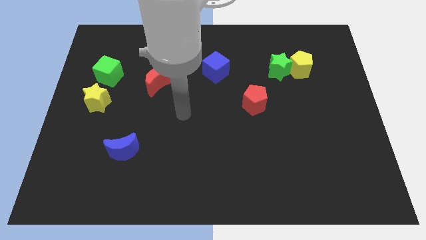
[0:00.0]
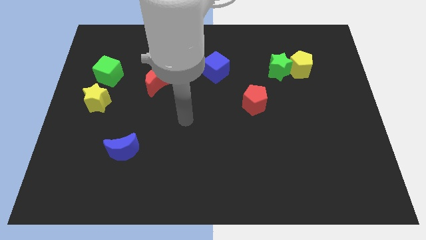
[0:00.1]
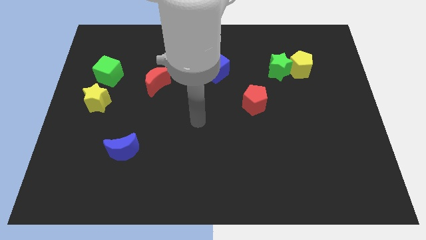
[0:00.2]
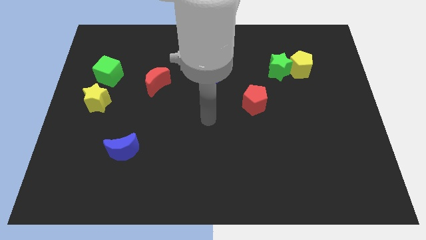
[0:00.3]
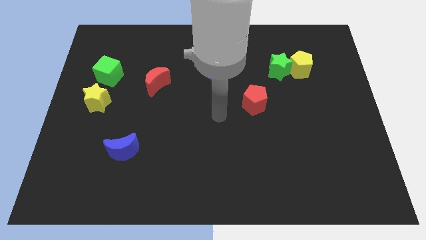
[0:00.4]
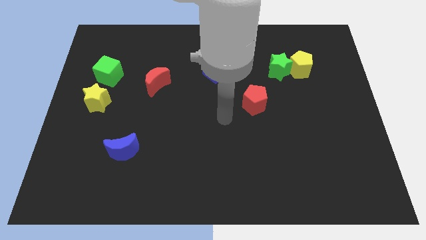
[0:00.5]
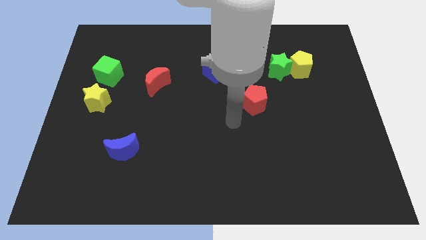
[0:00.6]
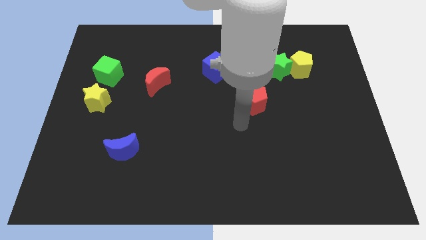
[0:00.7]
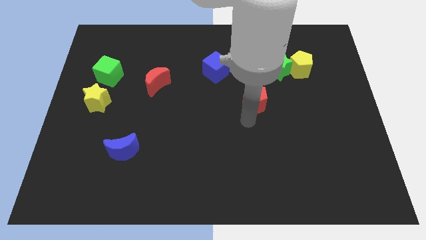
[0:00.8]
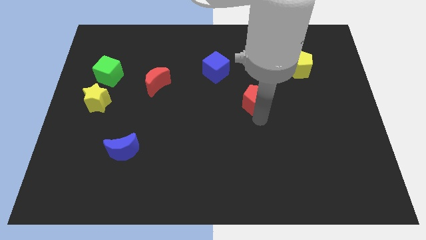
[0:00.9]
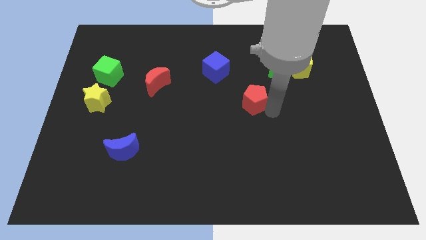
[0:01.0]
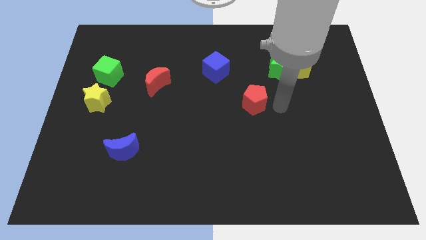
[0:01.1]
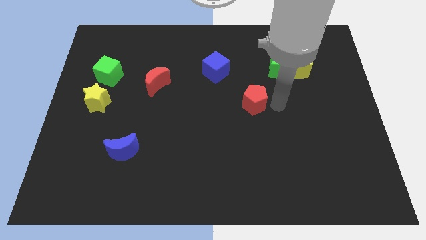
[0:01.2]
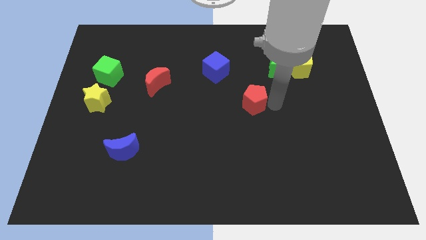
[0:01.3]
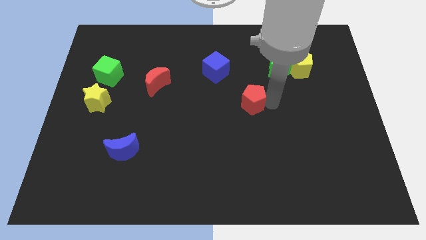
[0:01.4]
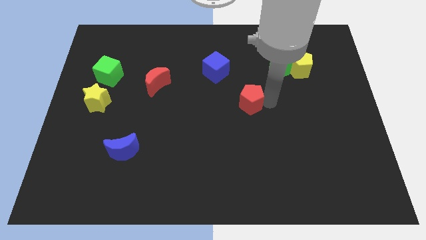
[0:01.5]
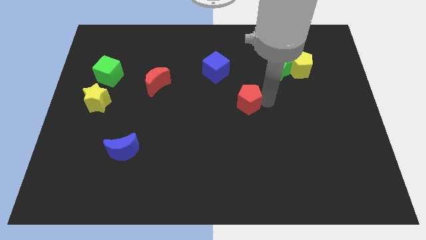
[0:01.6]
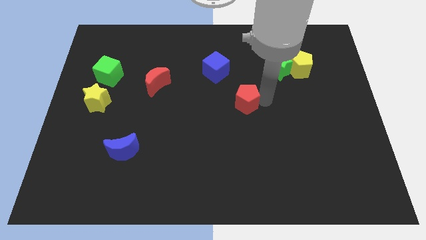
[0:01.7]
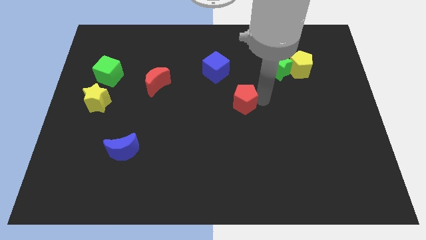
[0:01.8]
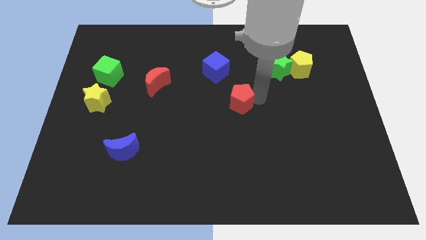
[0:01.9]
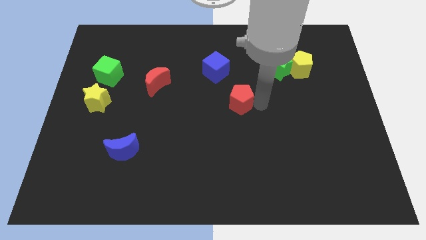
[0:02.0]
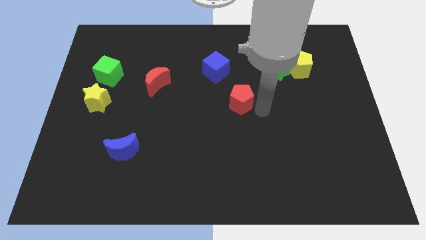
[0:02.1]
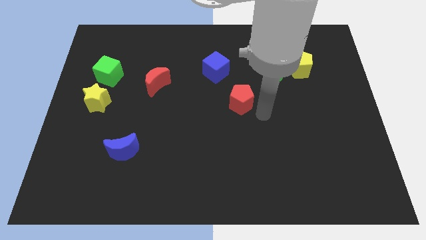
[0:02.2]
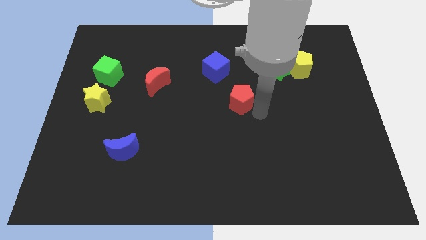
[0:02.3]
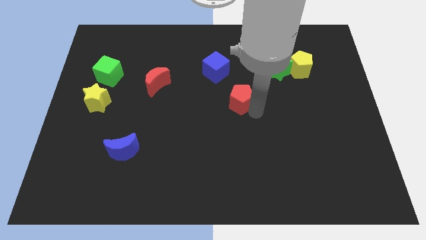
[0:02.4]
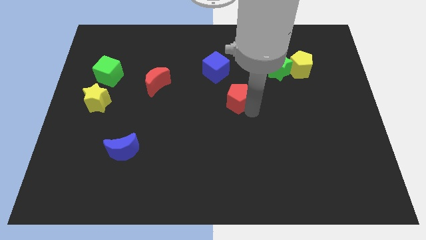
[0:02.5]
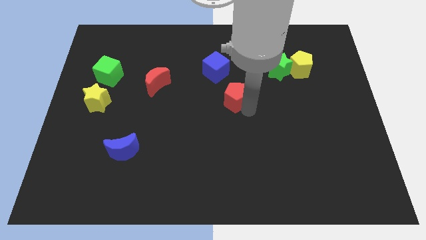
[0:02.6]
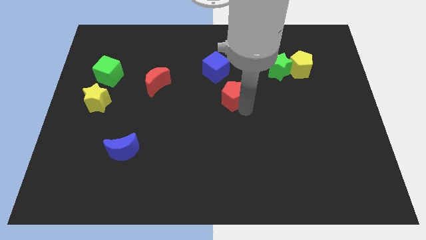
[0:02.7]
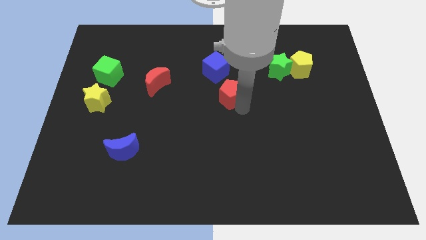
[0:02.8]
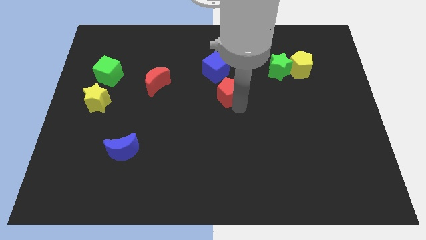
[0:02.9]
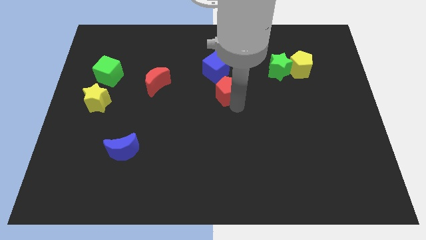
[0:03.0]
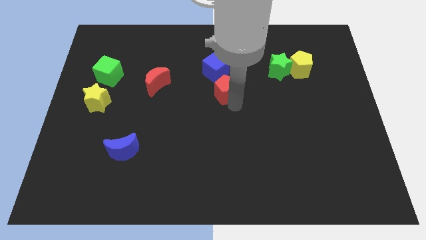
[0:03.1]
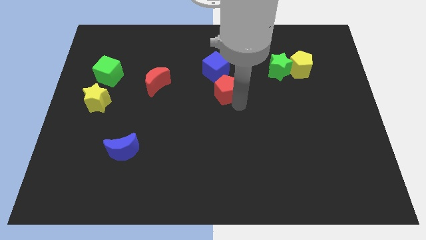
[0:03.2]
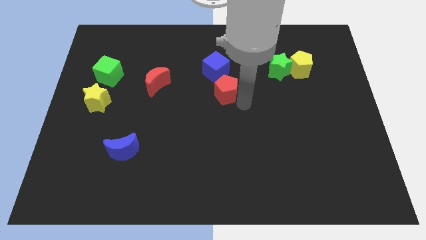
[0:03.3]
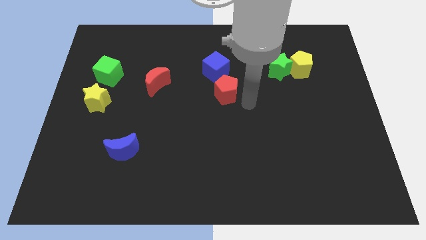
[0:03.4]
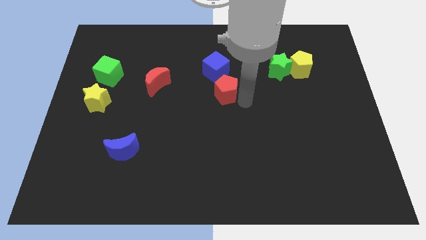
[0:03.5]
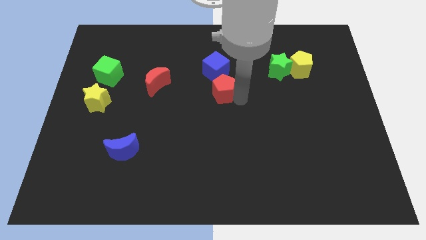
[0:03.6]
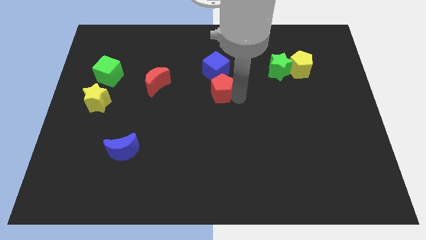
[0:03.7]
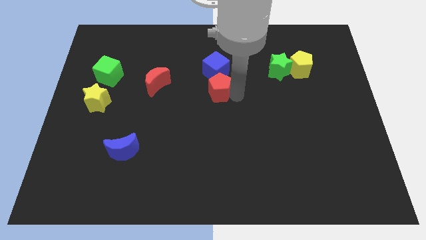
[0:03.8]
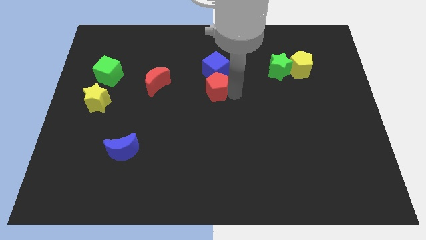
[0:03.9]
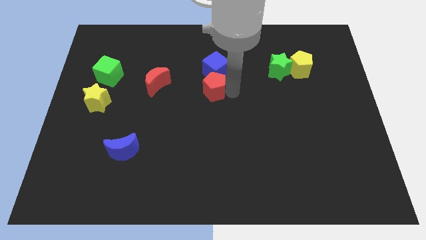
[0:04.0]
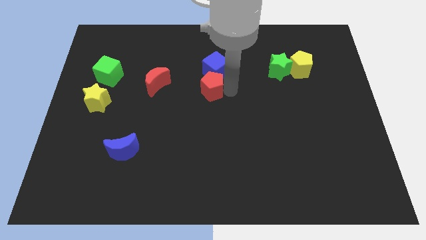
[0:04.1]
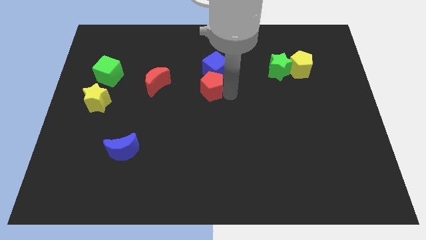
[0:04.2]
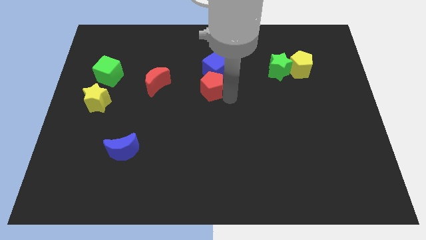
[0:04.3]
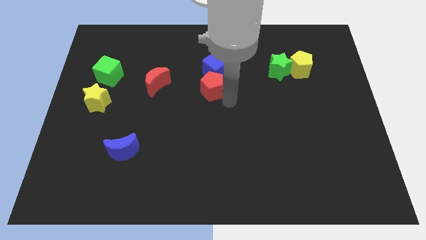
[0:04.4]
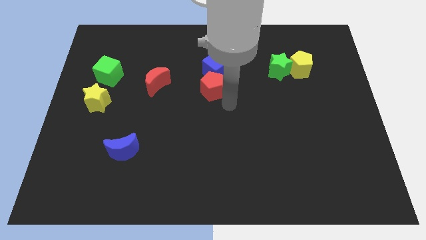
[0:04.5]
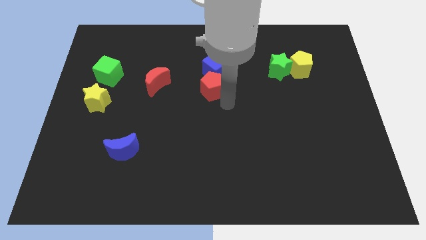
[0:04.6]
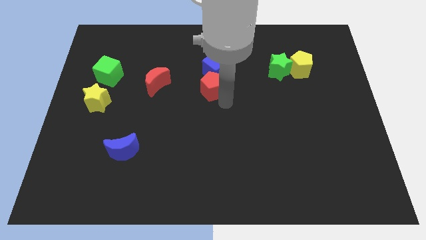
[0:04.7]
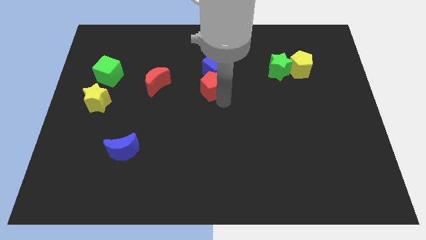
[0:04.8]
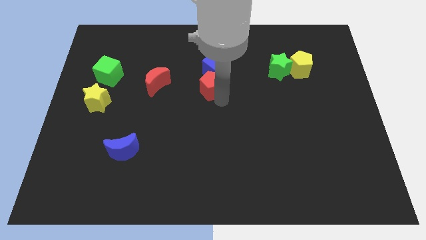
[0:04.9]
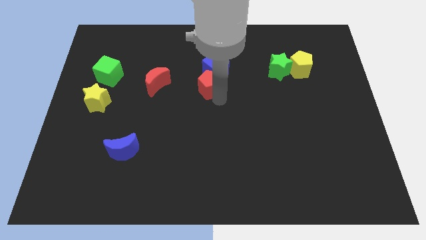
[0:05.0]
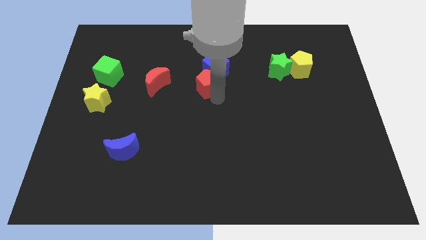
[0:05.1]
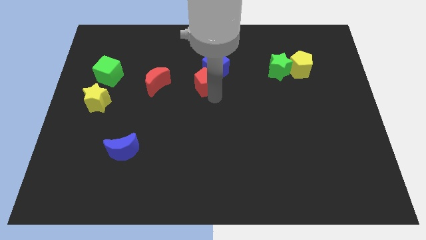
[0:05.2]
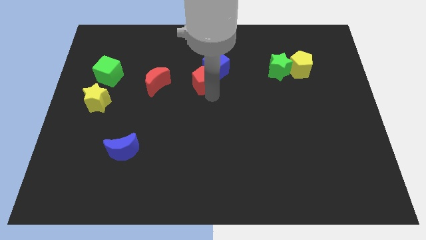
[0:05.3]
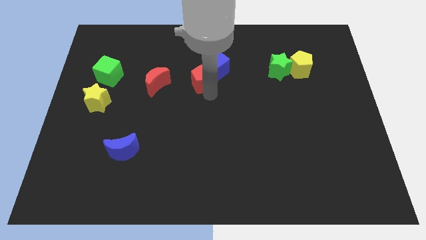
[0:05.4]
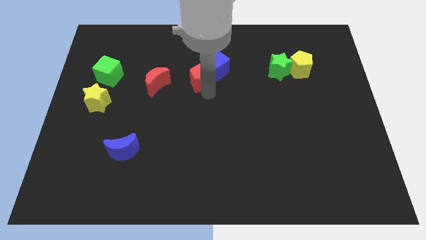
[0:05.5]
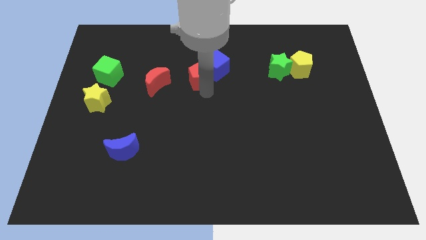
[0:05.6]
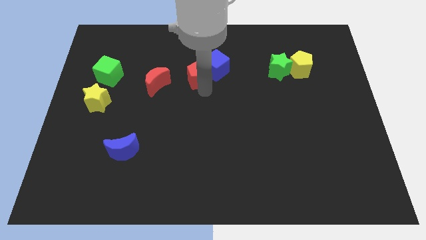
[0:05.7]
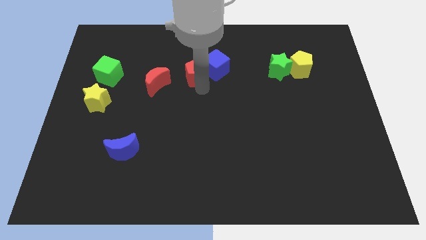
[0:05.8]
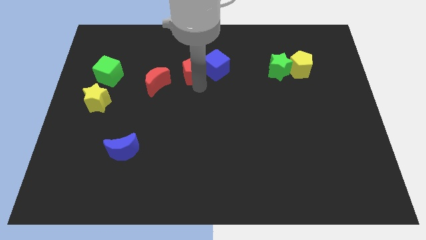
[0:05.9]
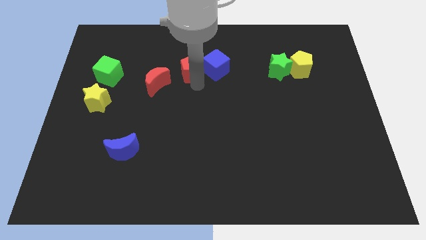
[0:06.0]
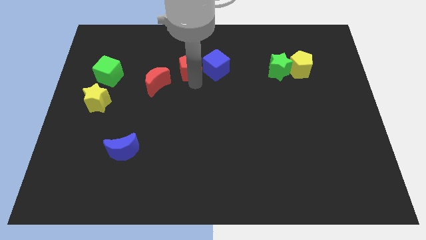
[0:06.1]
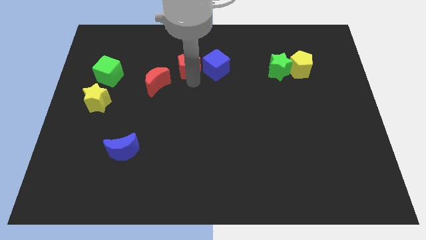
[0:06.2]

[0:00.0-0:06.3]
slide the red pentagon to the top left side of the blue cube
